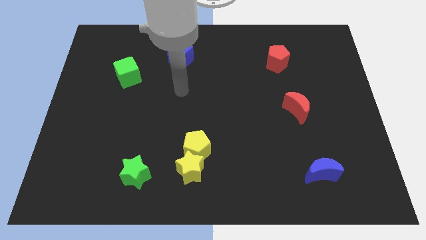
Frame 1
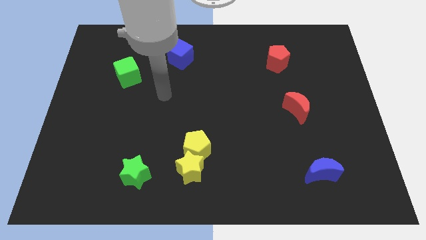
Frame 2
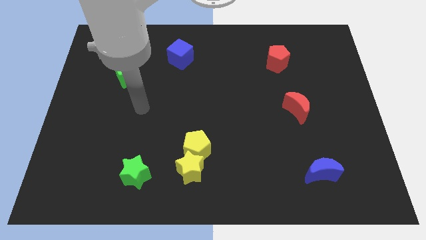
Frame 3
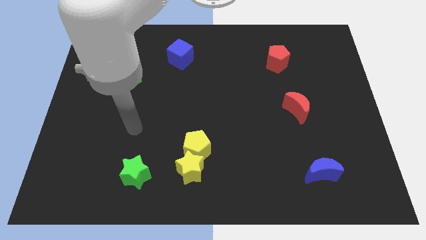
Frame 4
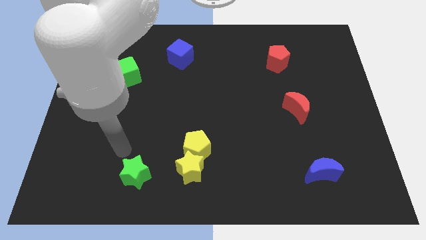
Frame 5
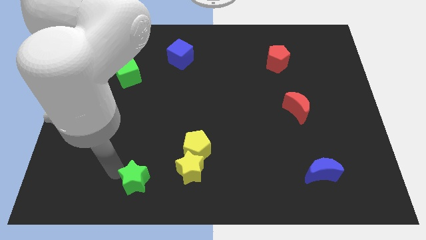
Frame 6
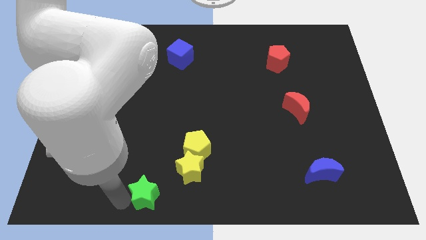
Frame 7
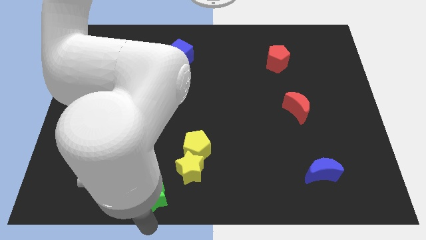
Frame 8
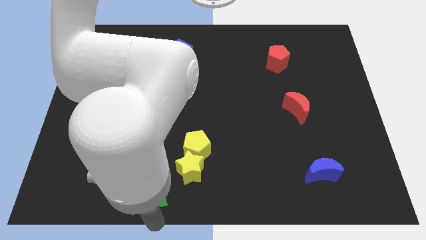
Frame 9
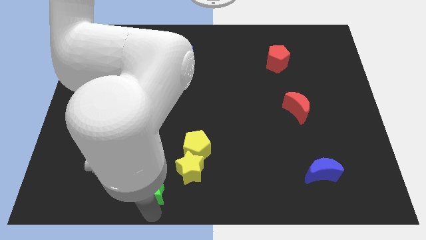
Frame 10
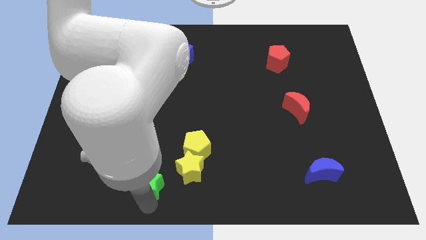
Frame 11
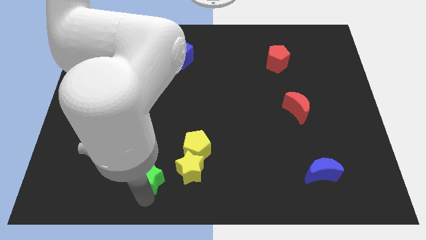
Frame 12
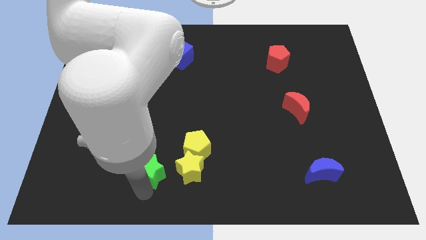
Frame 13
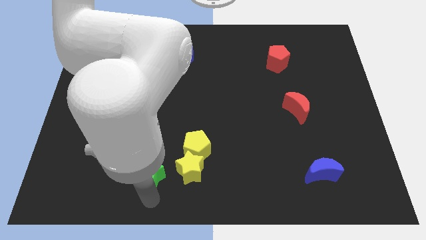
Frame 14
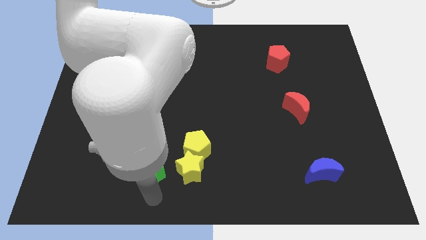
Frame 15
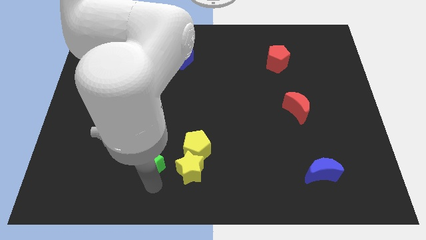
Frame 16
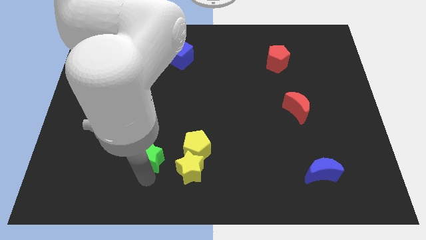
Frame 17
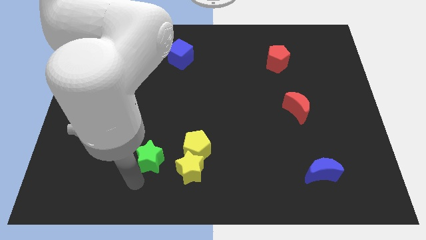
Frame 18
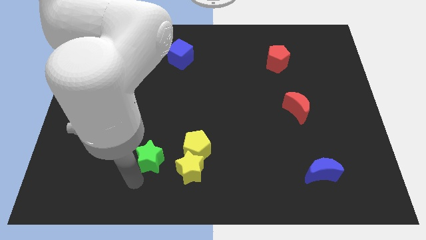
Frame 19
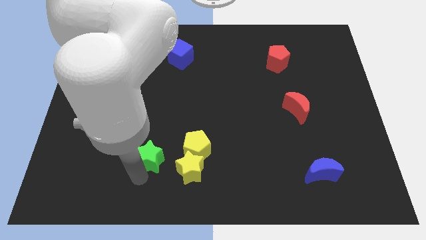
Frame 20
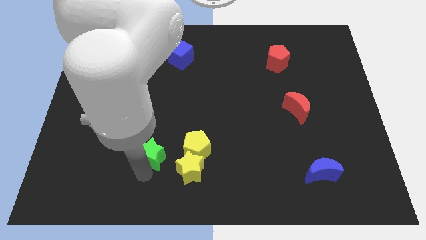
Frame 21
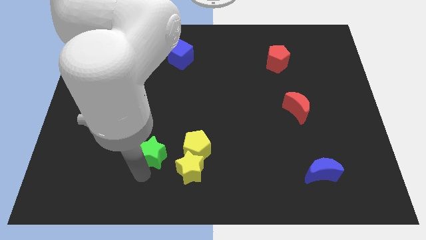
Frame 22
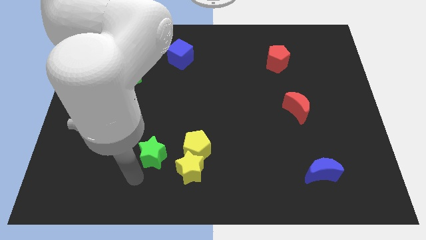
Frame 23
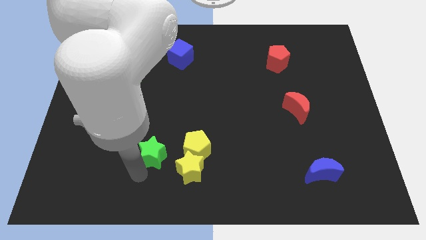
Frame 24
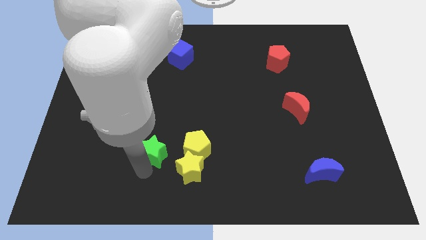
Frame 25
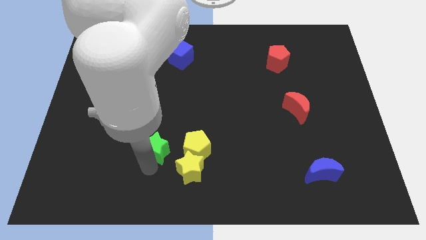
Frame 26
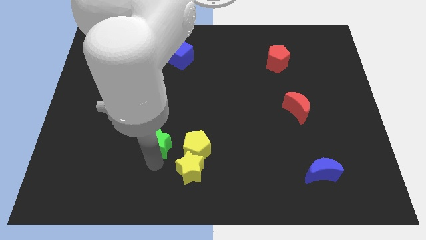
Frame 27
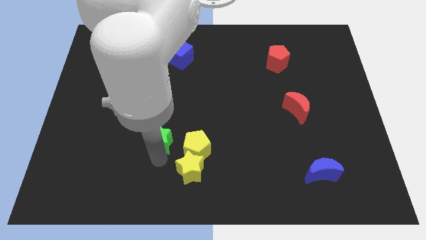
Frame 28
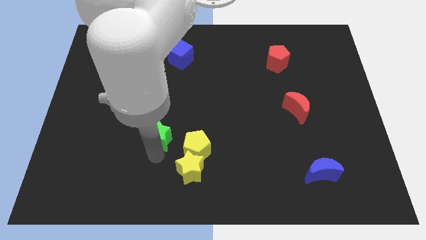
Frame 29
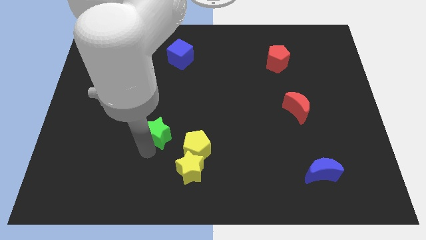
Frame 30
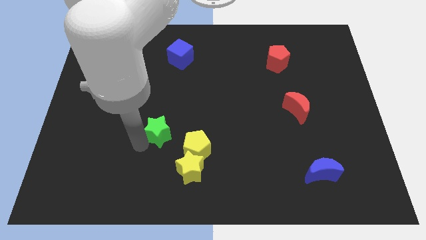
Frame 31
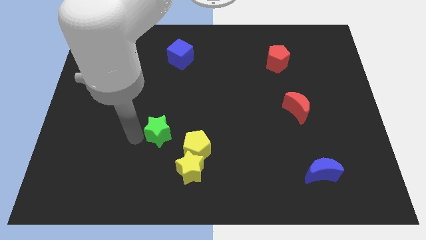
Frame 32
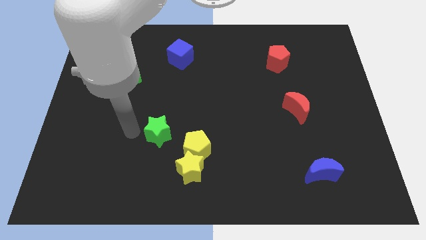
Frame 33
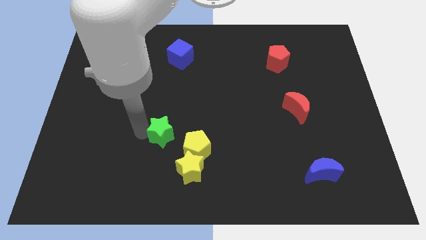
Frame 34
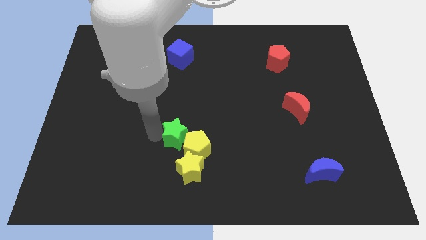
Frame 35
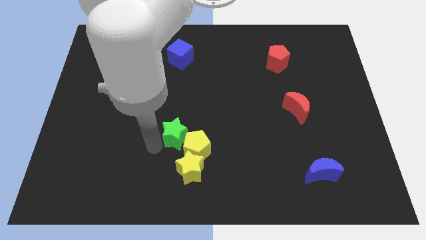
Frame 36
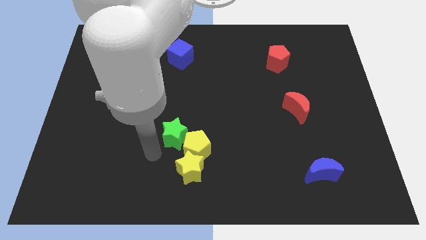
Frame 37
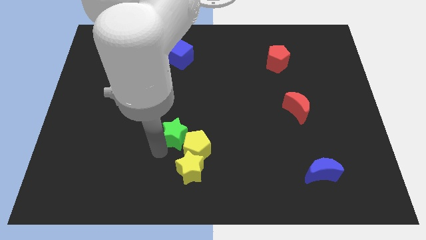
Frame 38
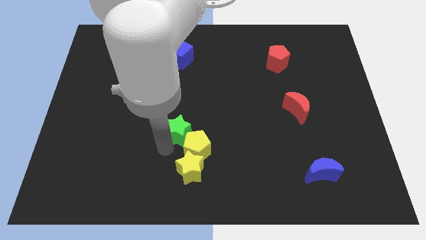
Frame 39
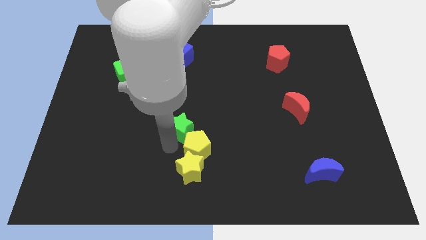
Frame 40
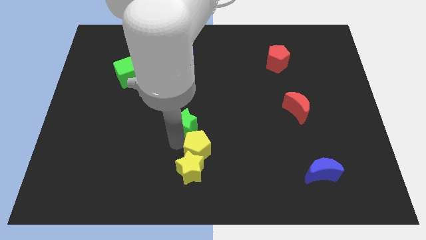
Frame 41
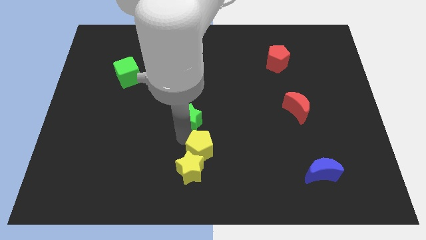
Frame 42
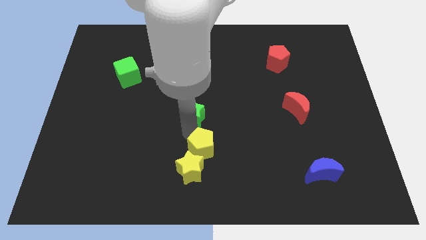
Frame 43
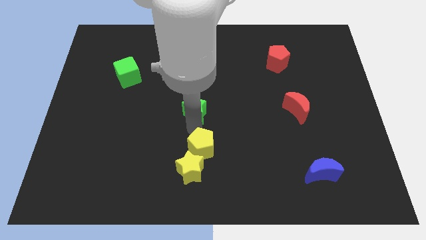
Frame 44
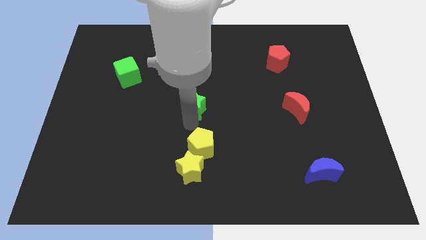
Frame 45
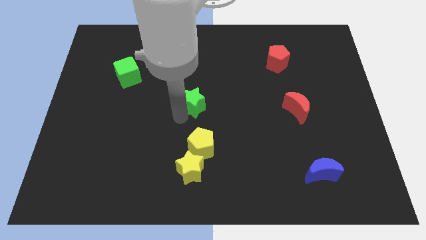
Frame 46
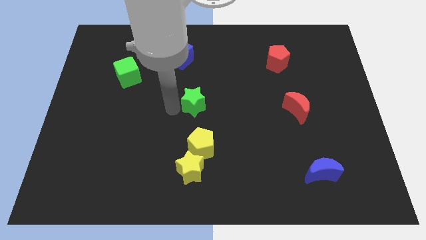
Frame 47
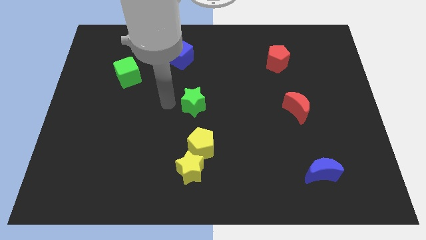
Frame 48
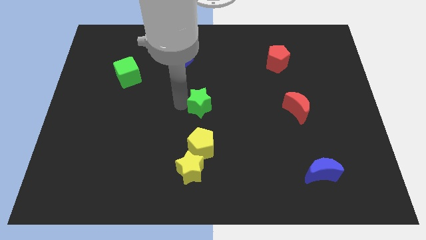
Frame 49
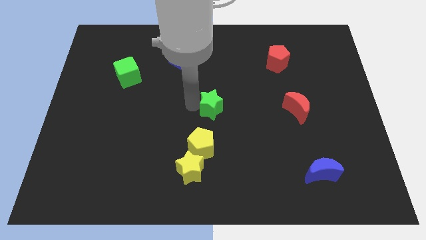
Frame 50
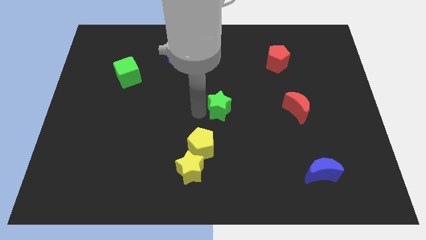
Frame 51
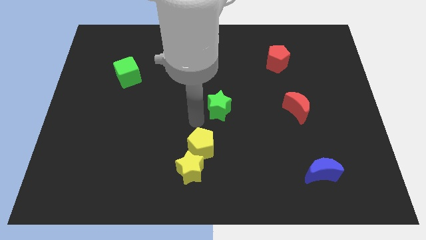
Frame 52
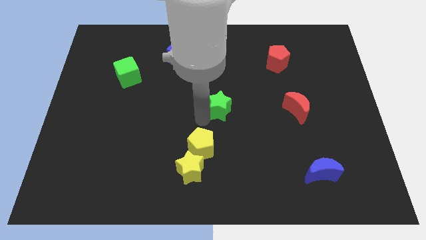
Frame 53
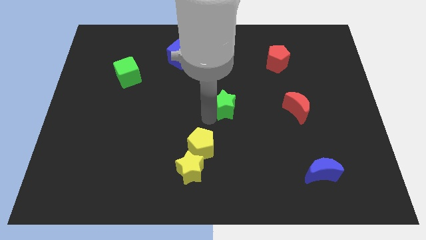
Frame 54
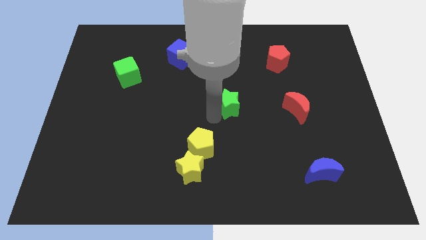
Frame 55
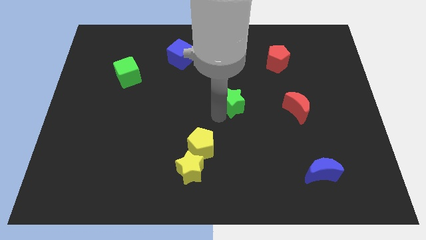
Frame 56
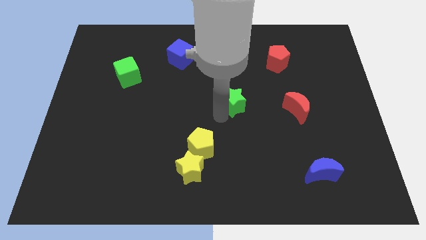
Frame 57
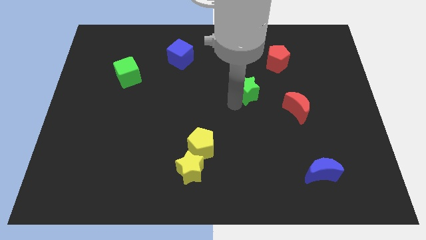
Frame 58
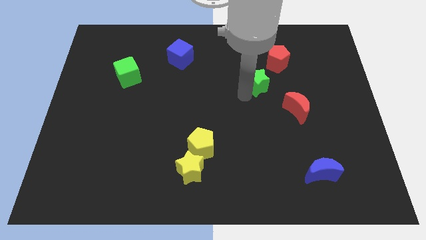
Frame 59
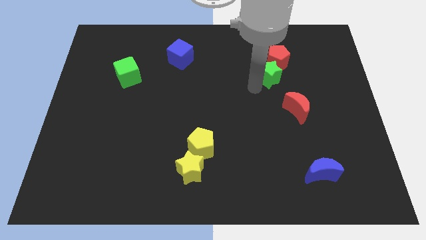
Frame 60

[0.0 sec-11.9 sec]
push the green star next to the red pentagon
